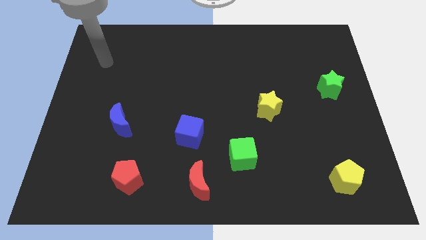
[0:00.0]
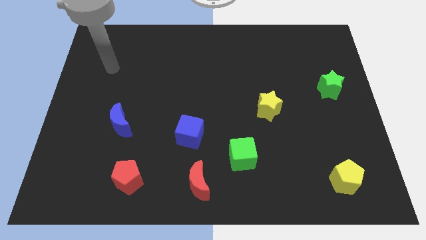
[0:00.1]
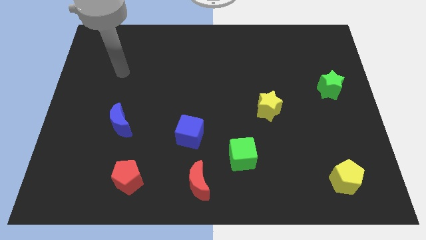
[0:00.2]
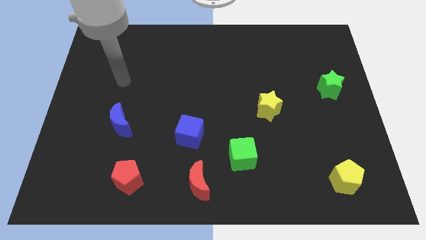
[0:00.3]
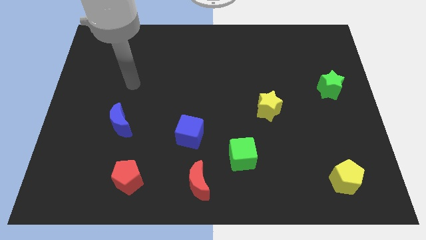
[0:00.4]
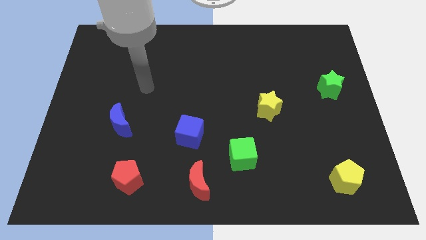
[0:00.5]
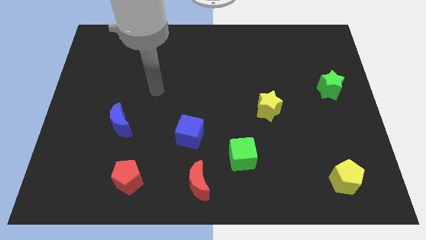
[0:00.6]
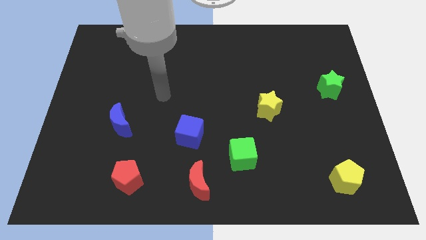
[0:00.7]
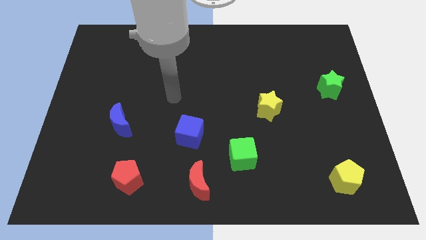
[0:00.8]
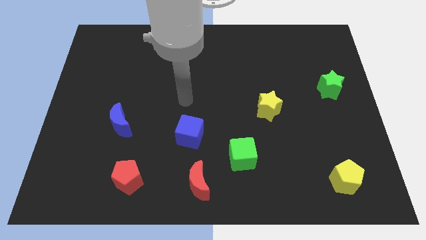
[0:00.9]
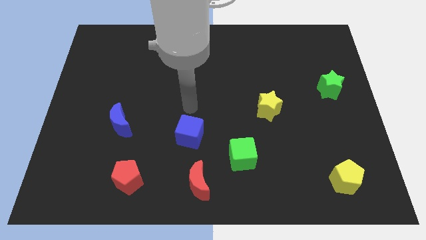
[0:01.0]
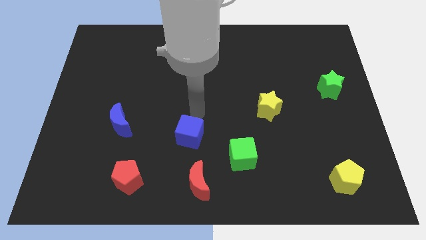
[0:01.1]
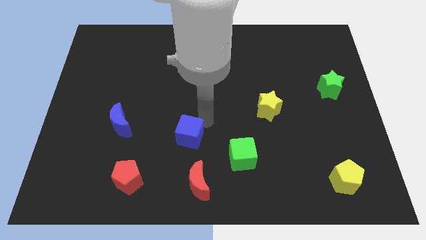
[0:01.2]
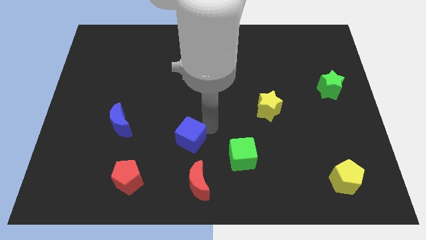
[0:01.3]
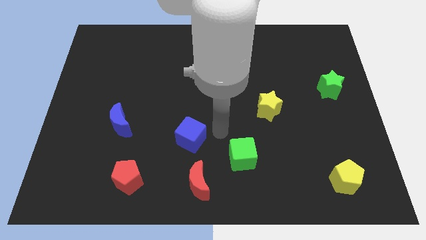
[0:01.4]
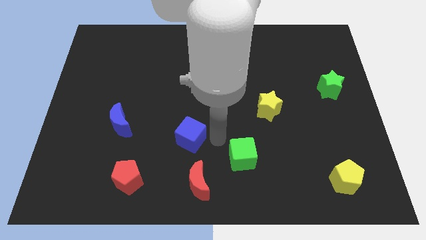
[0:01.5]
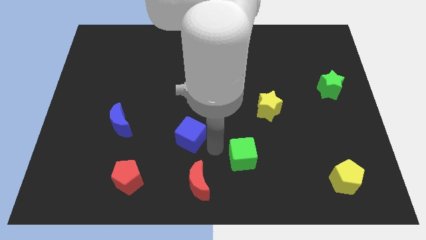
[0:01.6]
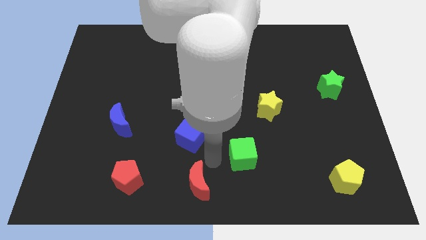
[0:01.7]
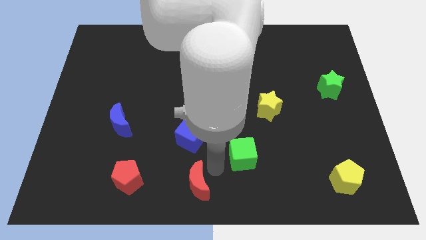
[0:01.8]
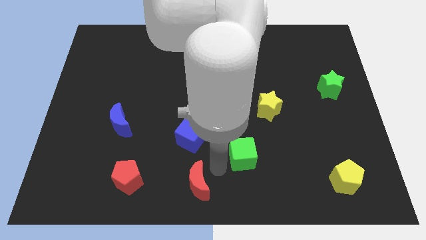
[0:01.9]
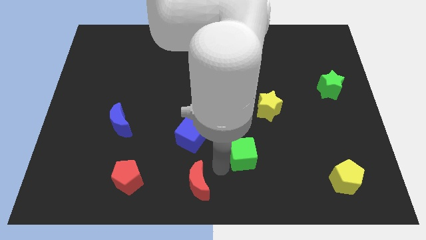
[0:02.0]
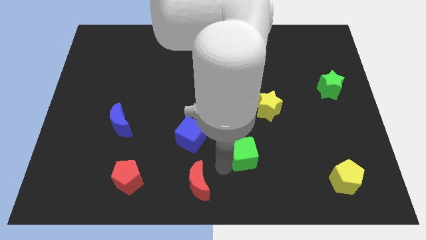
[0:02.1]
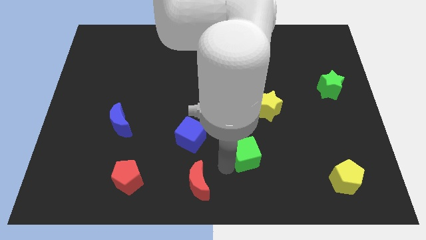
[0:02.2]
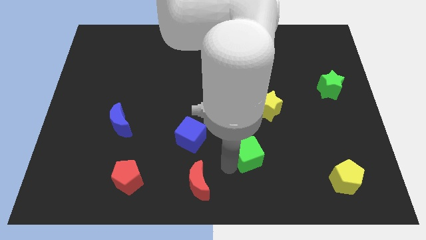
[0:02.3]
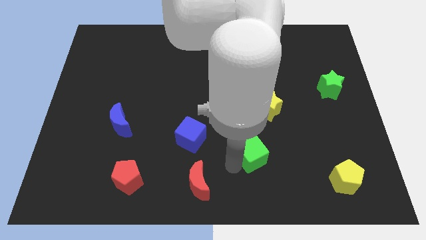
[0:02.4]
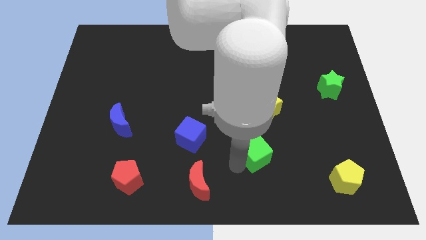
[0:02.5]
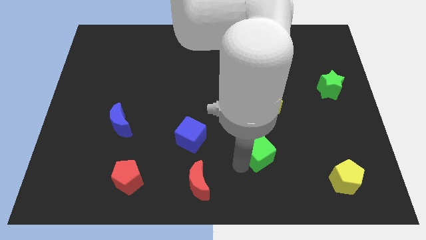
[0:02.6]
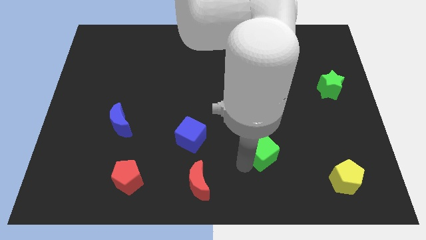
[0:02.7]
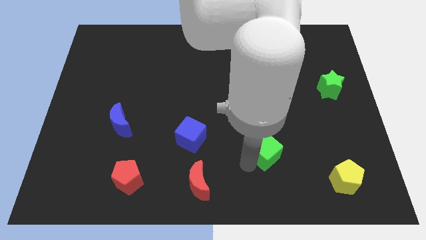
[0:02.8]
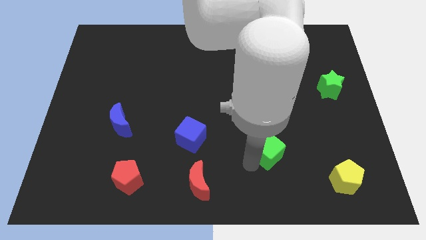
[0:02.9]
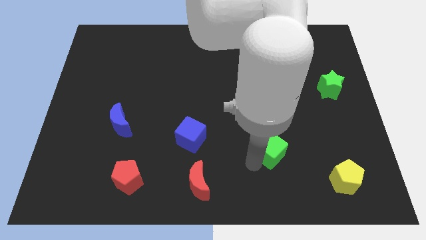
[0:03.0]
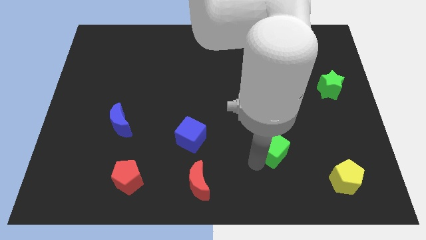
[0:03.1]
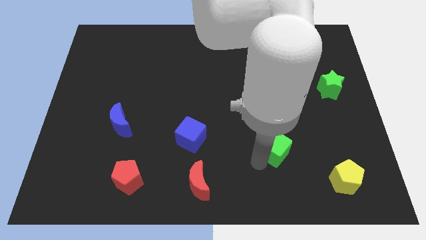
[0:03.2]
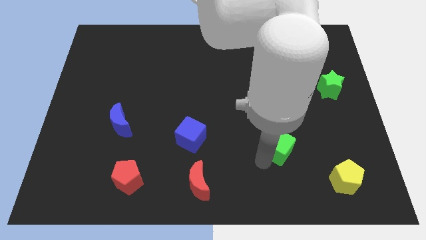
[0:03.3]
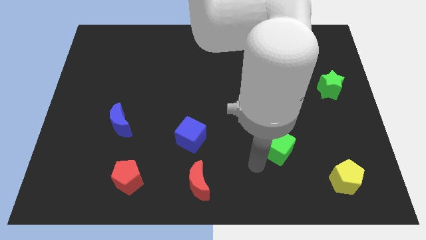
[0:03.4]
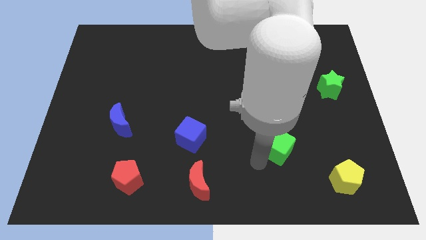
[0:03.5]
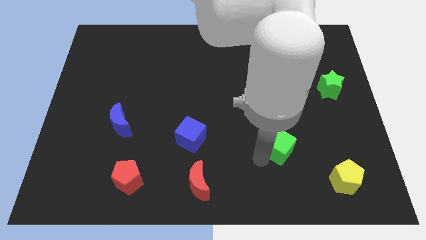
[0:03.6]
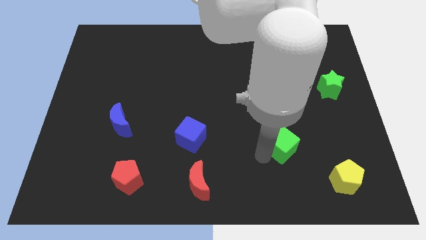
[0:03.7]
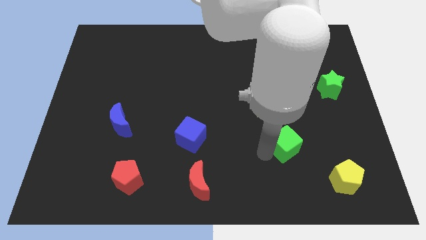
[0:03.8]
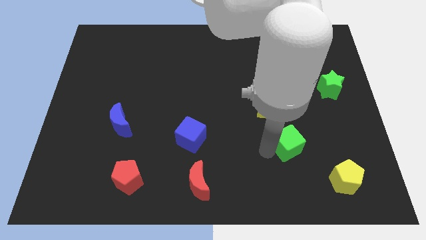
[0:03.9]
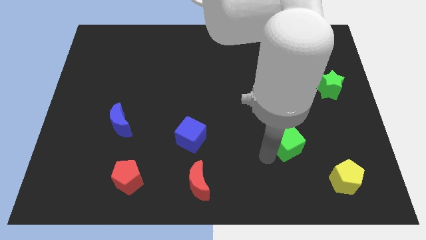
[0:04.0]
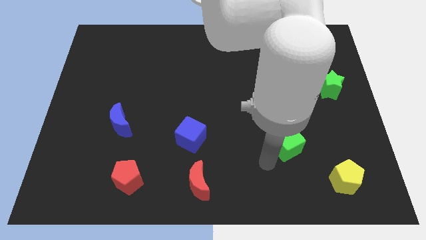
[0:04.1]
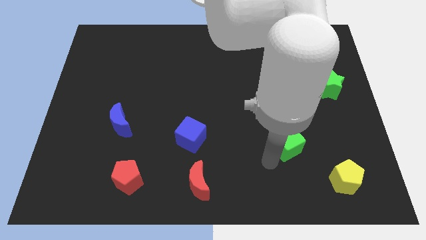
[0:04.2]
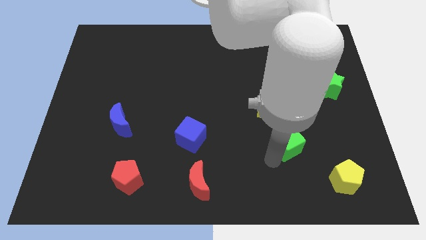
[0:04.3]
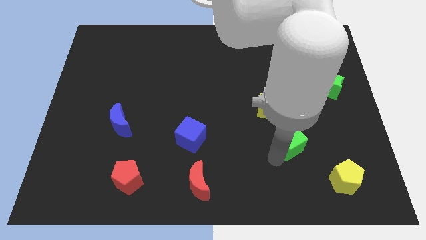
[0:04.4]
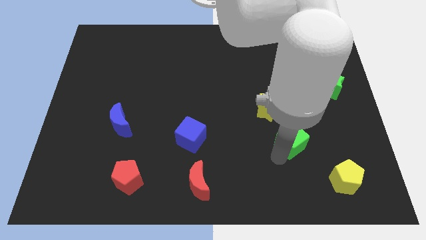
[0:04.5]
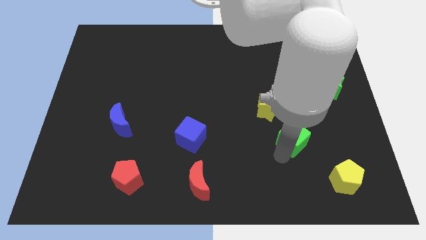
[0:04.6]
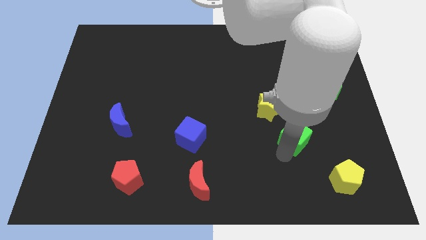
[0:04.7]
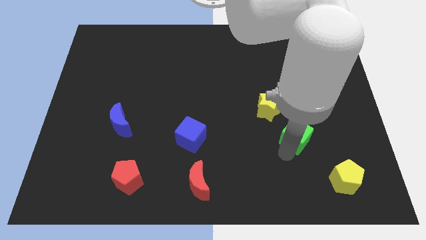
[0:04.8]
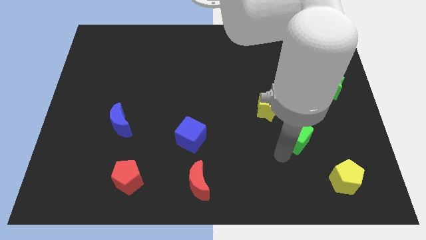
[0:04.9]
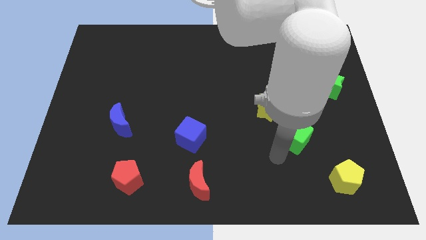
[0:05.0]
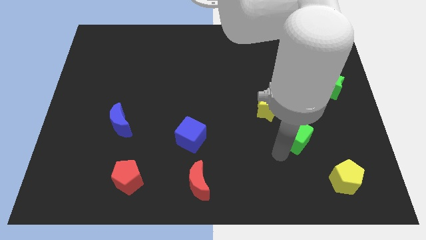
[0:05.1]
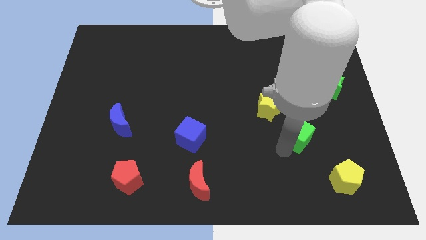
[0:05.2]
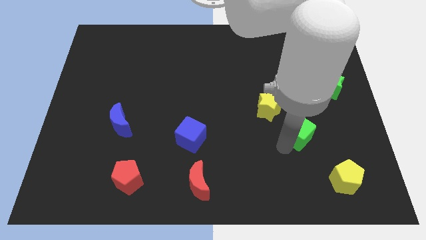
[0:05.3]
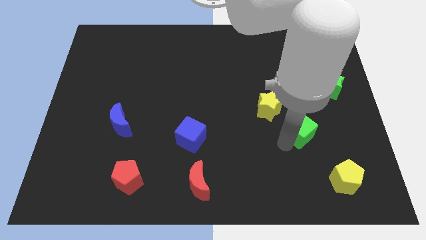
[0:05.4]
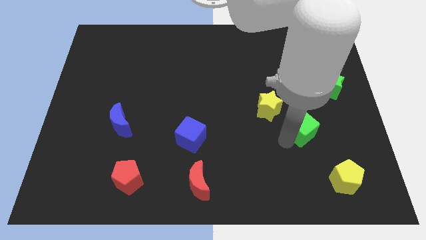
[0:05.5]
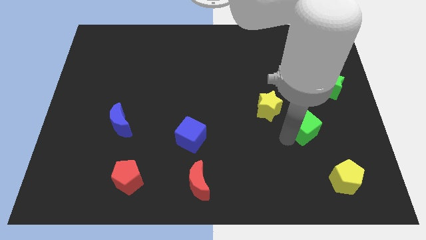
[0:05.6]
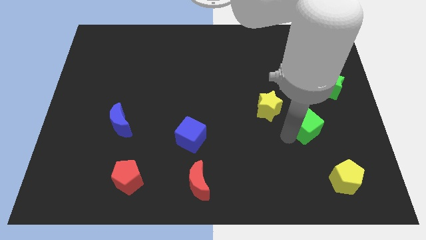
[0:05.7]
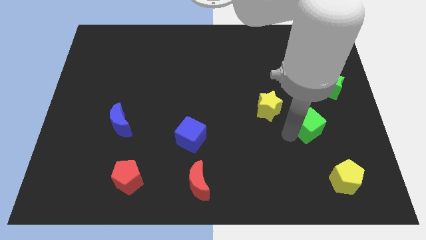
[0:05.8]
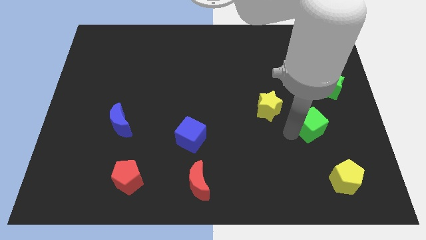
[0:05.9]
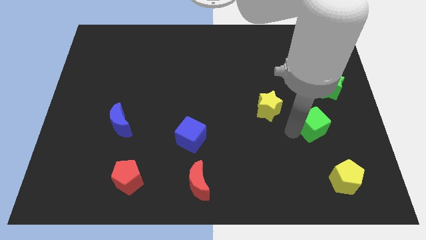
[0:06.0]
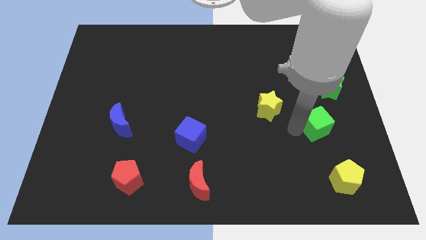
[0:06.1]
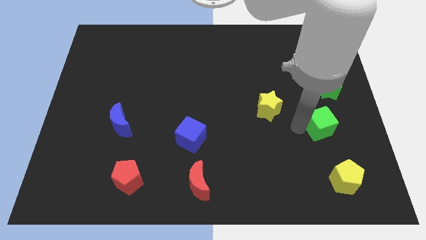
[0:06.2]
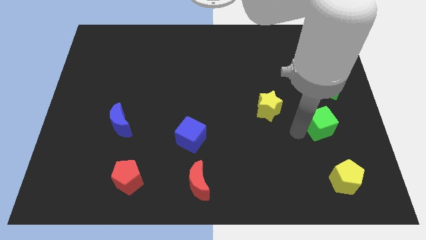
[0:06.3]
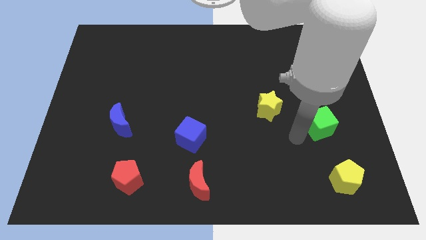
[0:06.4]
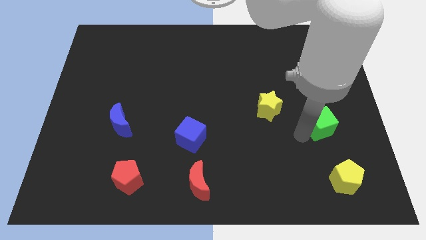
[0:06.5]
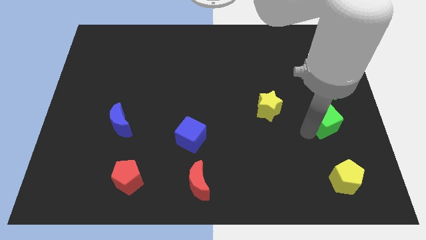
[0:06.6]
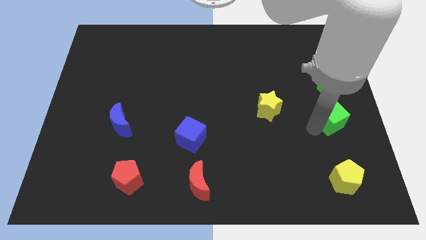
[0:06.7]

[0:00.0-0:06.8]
push the green cube to the center right

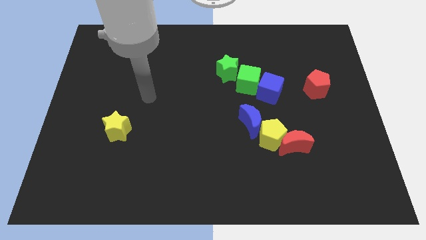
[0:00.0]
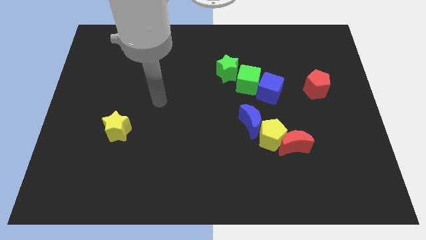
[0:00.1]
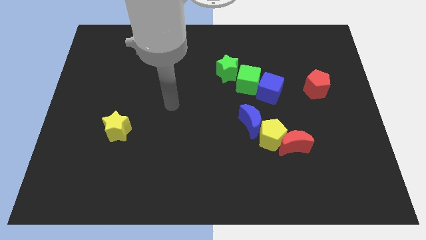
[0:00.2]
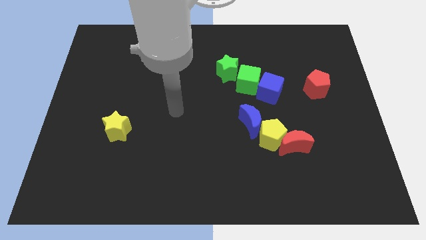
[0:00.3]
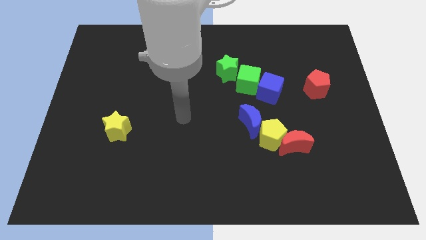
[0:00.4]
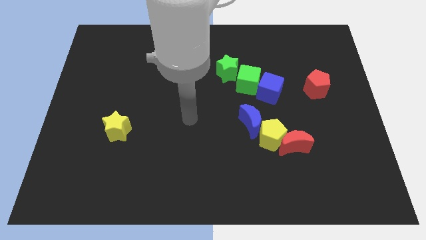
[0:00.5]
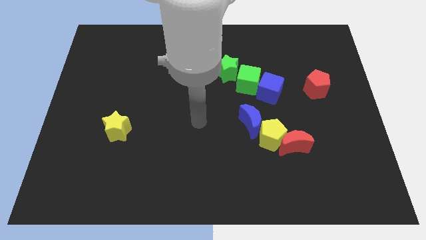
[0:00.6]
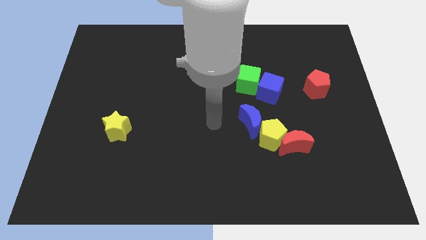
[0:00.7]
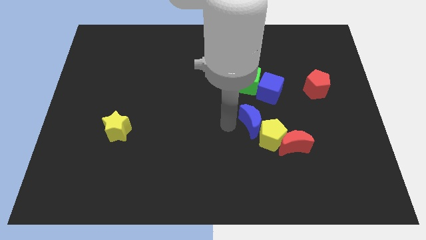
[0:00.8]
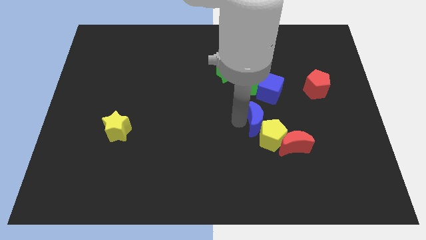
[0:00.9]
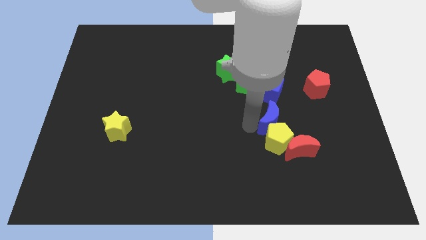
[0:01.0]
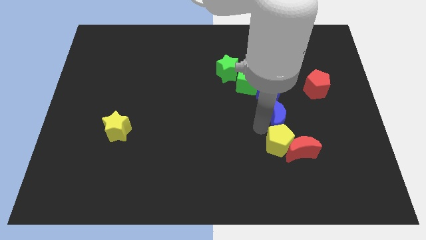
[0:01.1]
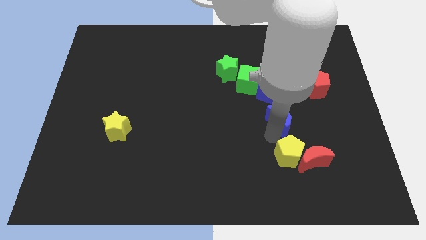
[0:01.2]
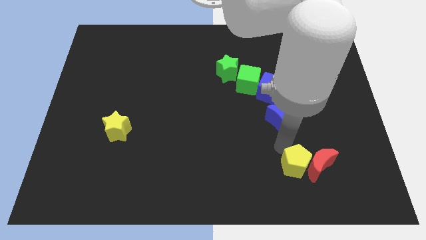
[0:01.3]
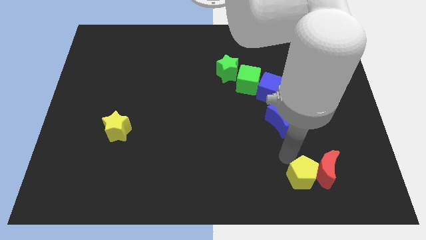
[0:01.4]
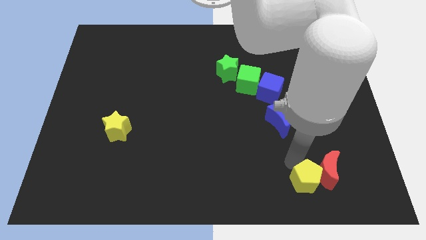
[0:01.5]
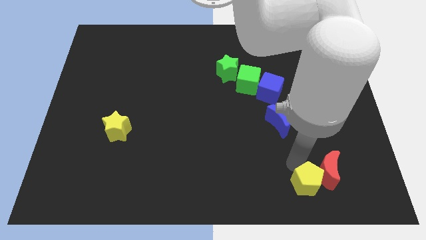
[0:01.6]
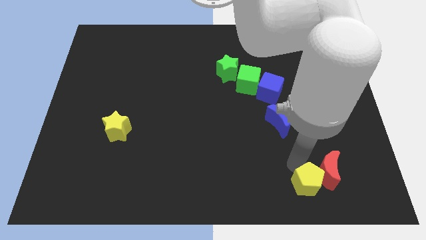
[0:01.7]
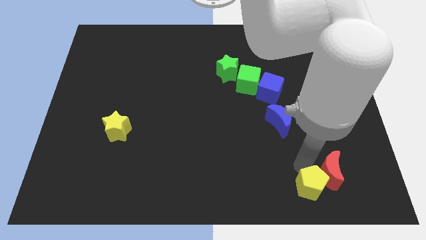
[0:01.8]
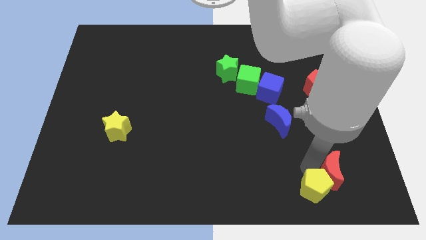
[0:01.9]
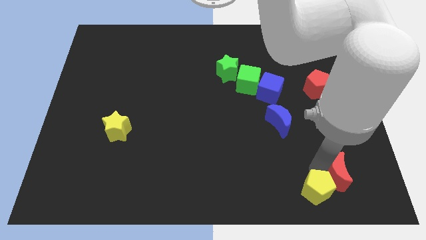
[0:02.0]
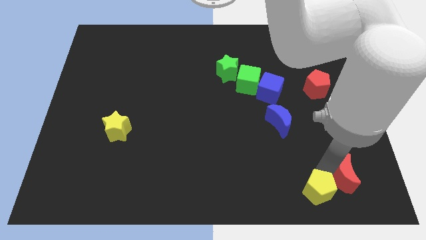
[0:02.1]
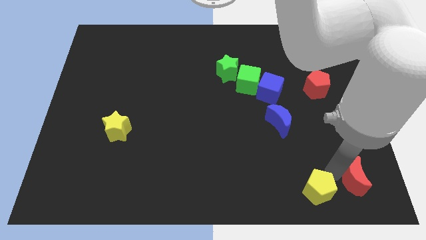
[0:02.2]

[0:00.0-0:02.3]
put the red moon to the bottom right of the board
